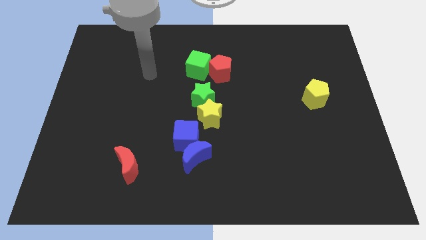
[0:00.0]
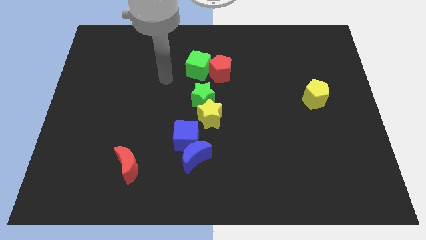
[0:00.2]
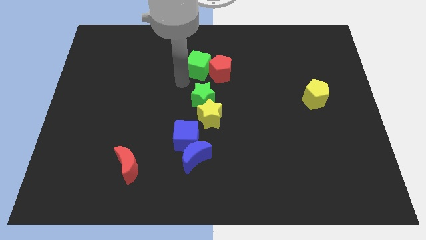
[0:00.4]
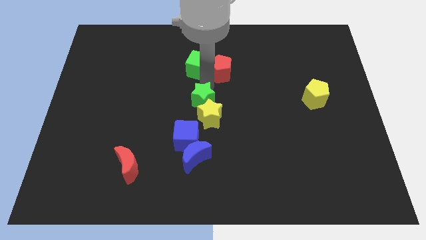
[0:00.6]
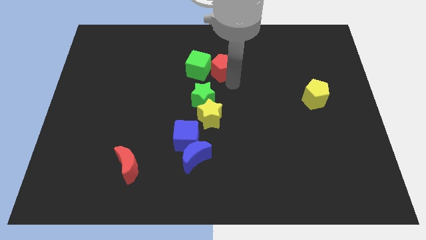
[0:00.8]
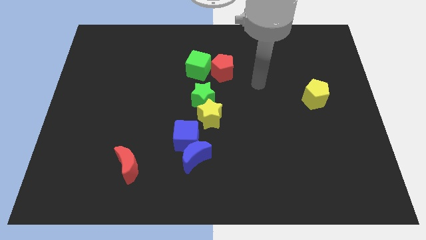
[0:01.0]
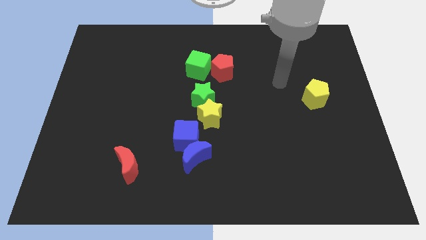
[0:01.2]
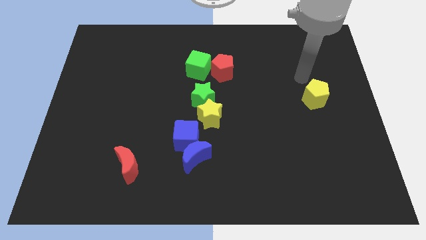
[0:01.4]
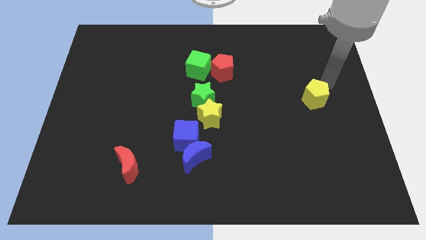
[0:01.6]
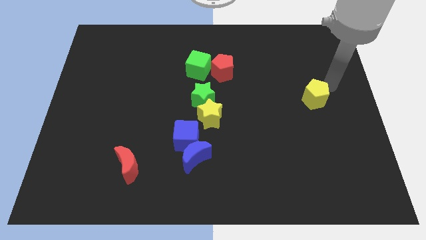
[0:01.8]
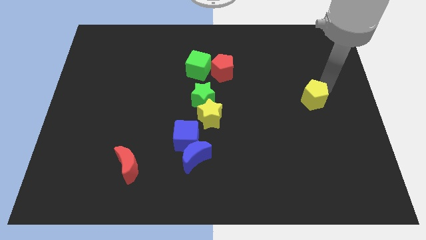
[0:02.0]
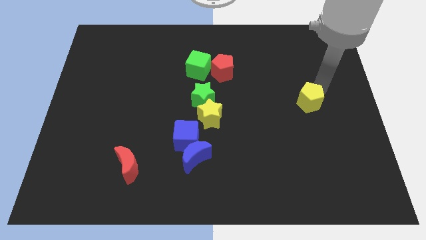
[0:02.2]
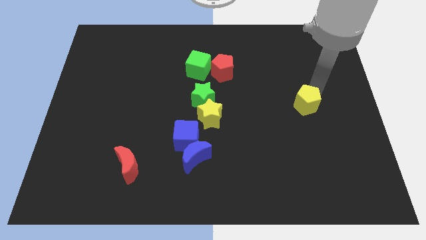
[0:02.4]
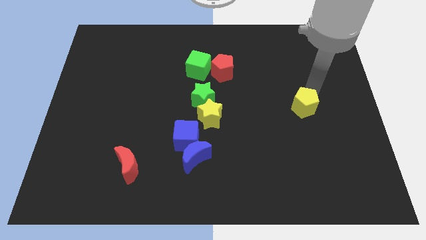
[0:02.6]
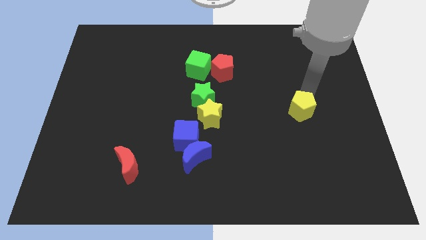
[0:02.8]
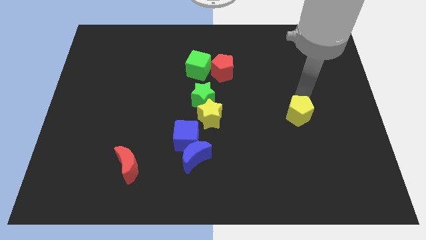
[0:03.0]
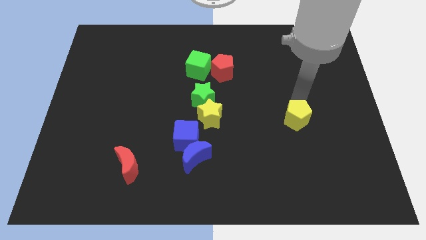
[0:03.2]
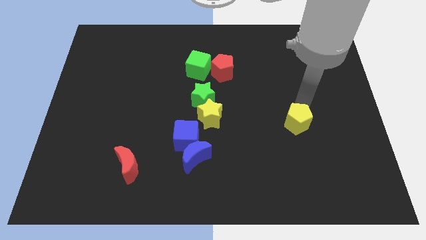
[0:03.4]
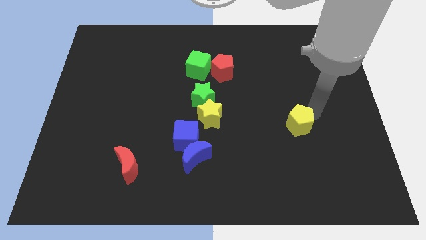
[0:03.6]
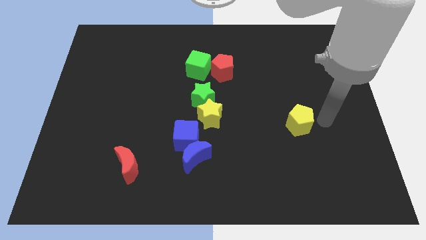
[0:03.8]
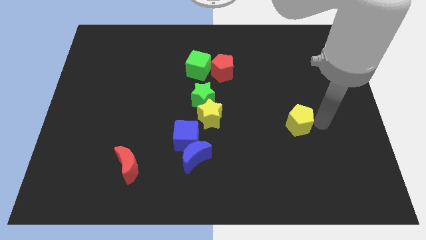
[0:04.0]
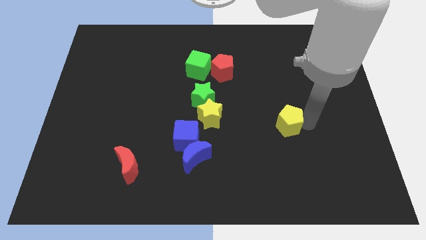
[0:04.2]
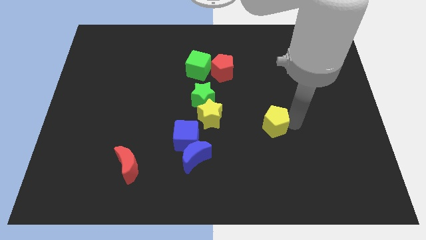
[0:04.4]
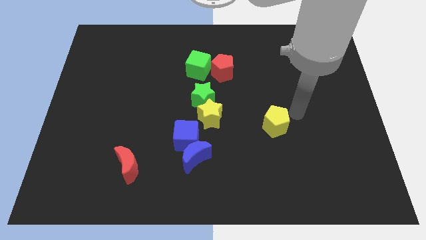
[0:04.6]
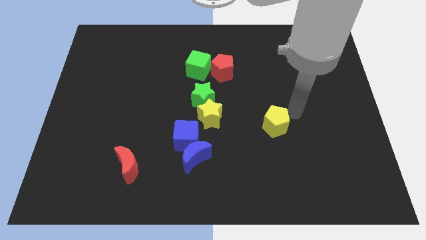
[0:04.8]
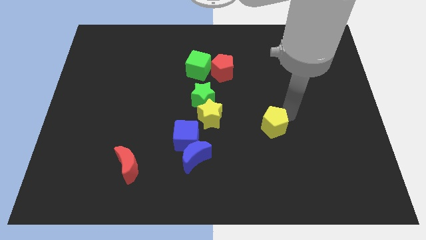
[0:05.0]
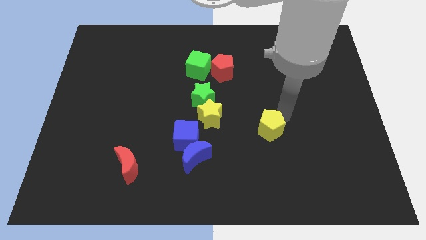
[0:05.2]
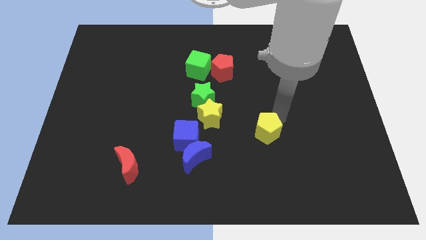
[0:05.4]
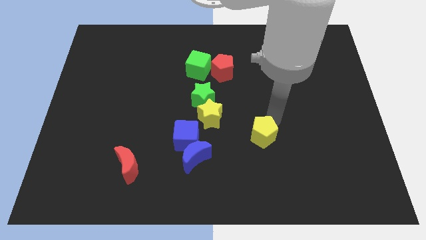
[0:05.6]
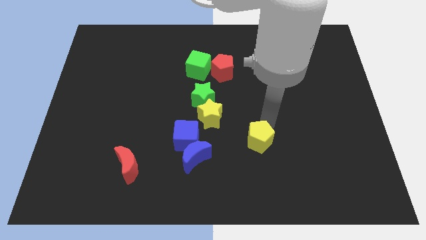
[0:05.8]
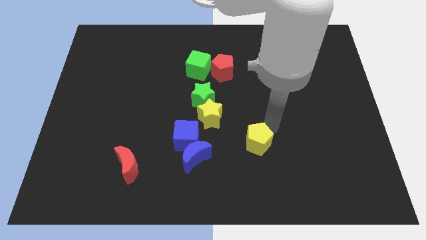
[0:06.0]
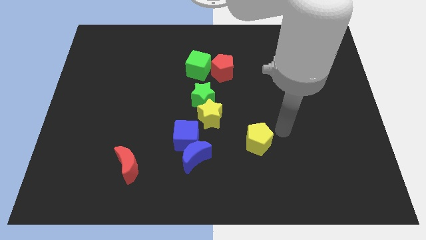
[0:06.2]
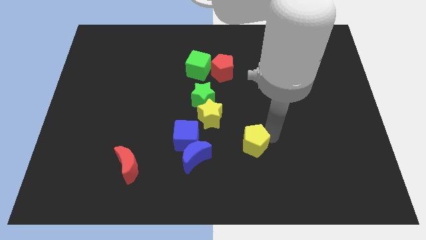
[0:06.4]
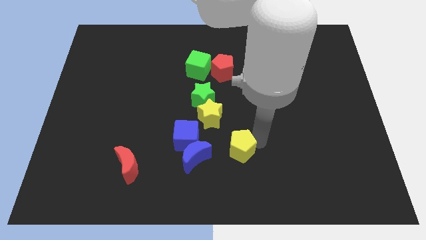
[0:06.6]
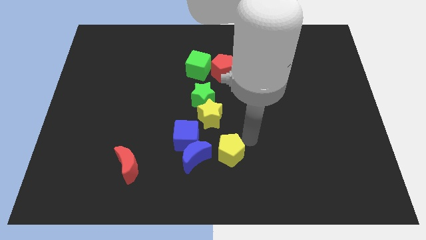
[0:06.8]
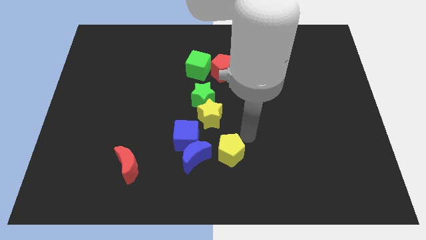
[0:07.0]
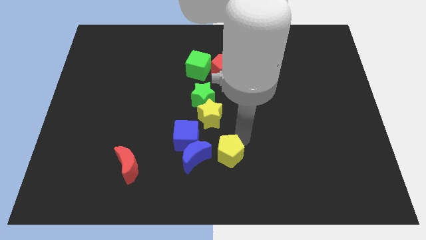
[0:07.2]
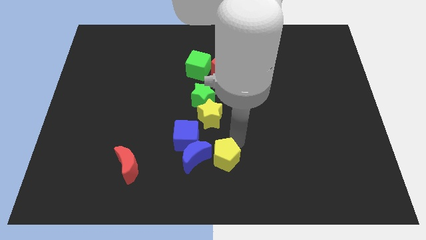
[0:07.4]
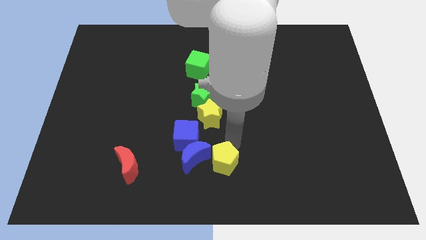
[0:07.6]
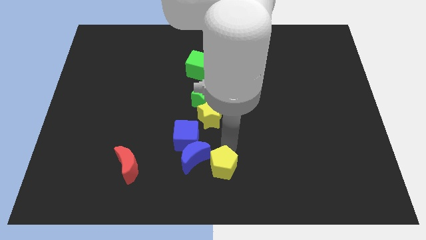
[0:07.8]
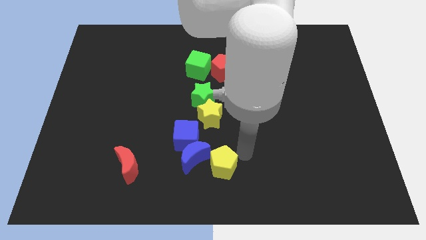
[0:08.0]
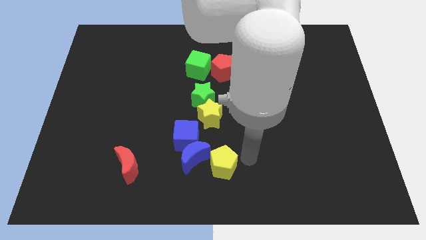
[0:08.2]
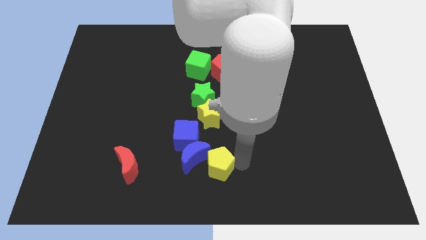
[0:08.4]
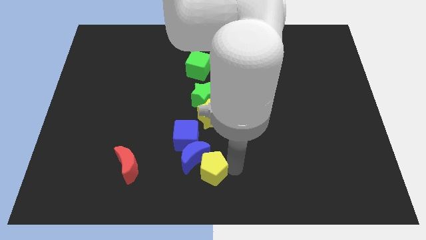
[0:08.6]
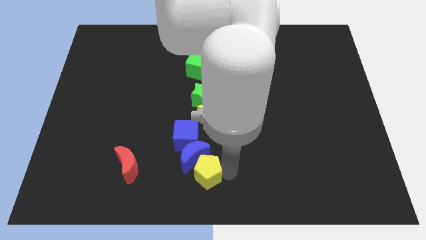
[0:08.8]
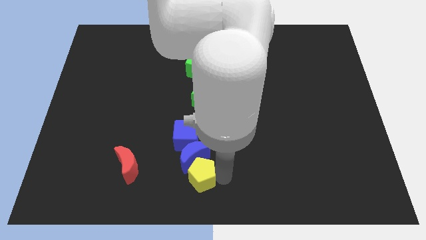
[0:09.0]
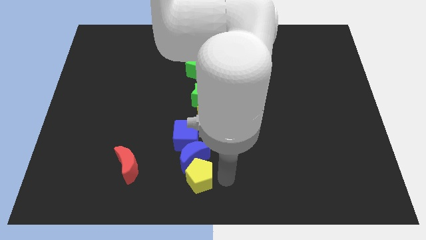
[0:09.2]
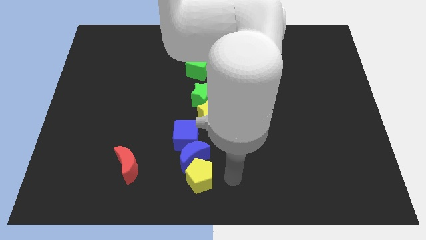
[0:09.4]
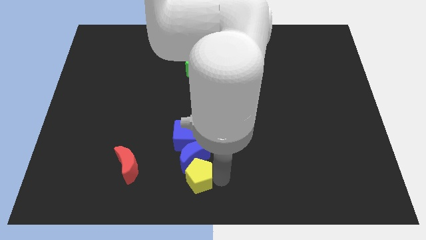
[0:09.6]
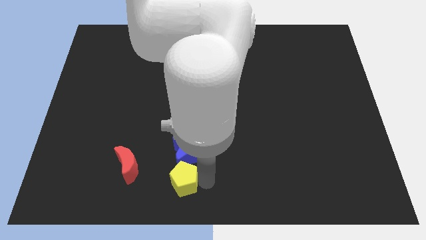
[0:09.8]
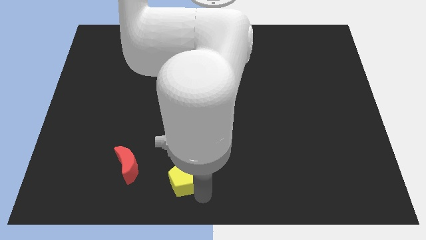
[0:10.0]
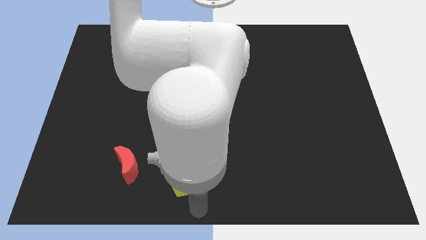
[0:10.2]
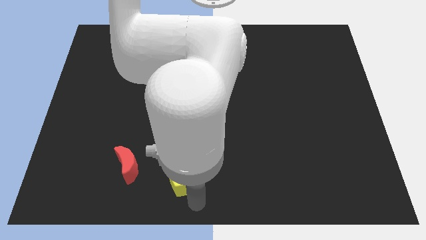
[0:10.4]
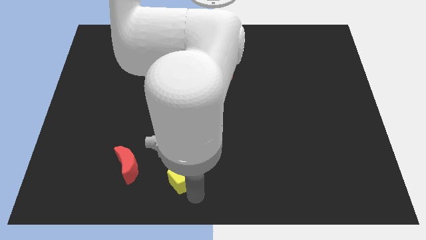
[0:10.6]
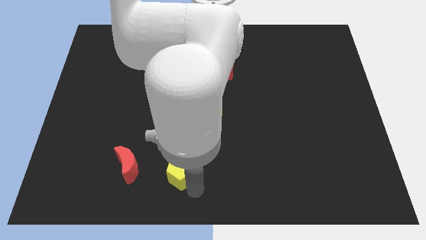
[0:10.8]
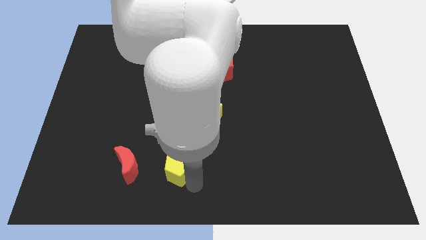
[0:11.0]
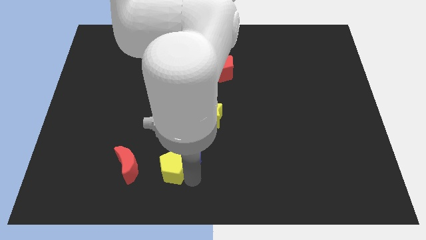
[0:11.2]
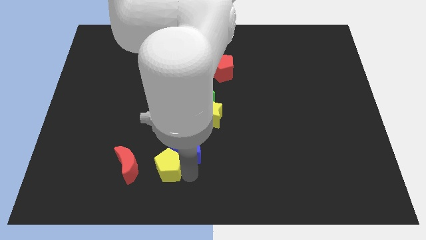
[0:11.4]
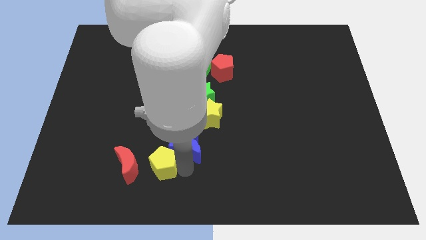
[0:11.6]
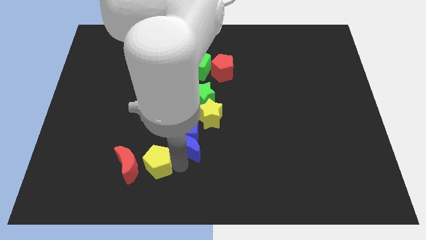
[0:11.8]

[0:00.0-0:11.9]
move the yellow pentagon towards the red moon
